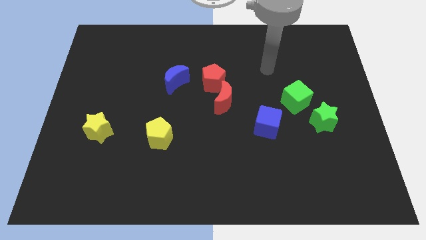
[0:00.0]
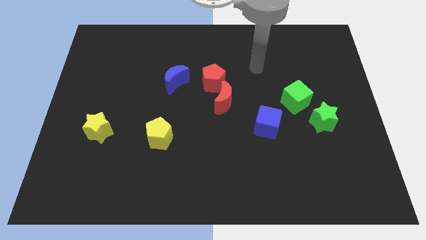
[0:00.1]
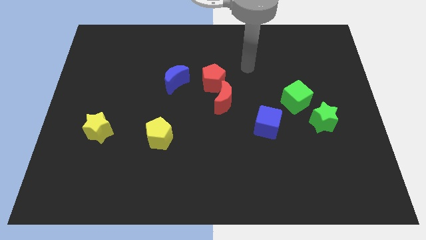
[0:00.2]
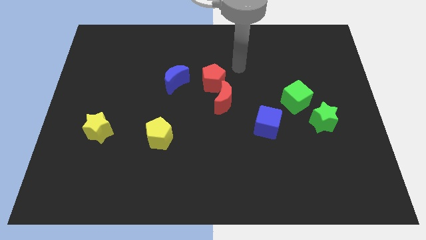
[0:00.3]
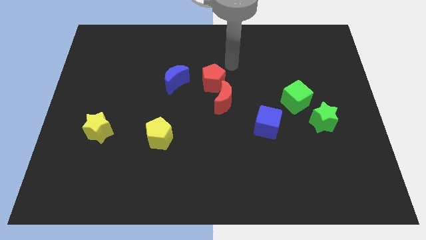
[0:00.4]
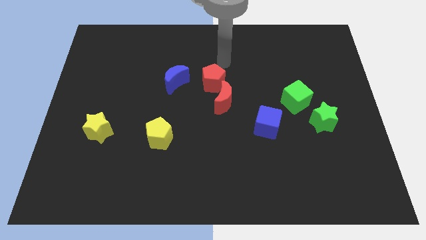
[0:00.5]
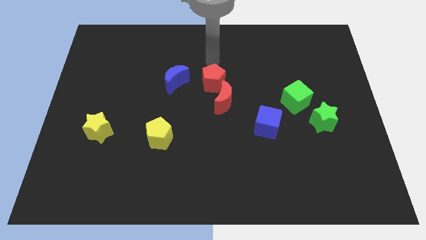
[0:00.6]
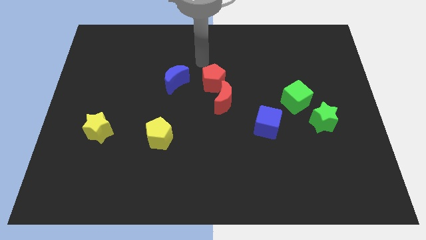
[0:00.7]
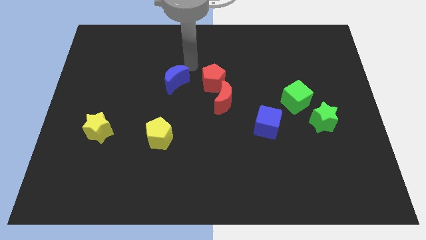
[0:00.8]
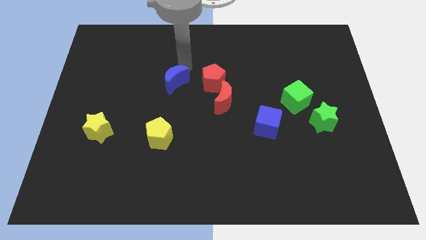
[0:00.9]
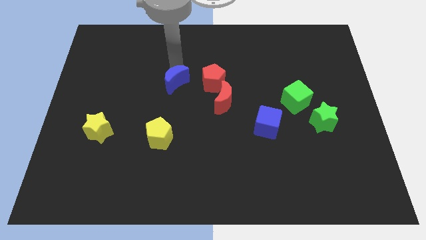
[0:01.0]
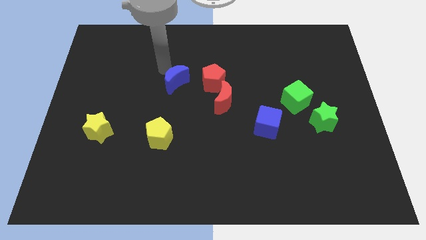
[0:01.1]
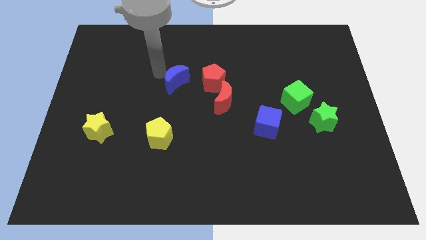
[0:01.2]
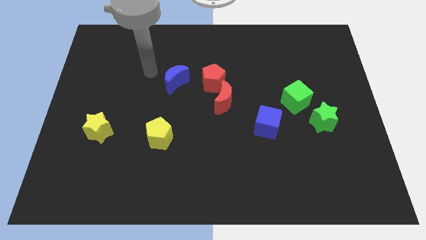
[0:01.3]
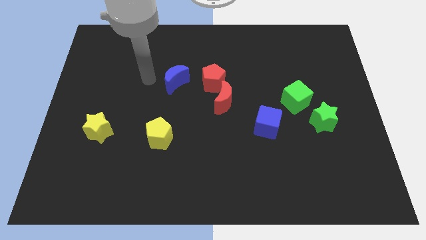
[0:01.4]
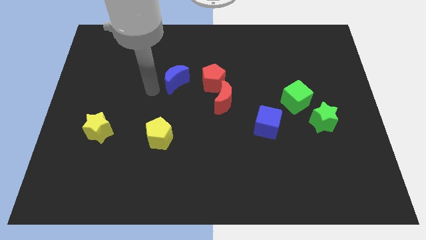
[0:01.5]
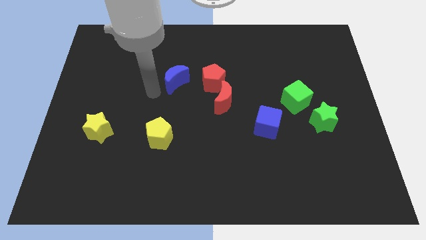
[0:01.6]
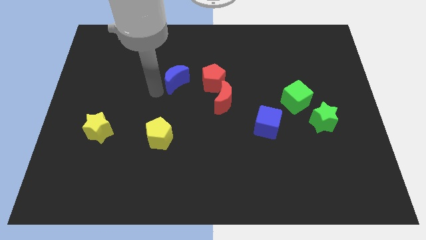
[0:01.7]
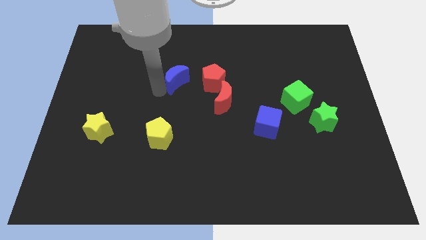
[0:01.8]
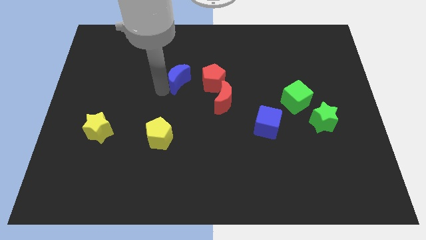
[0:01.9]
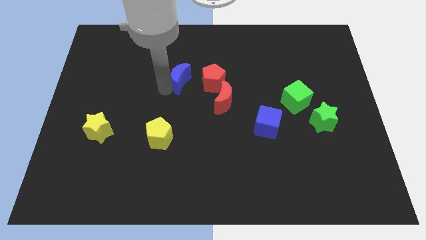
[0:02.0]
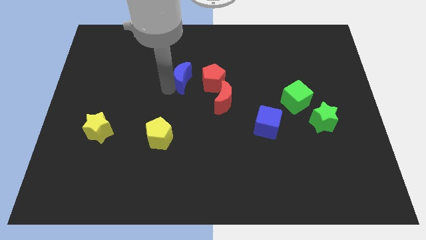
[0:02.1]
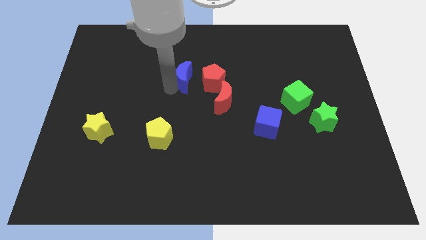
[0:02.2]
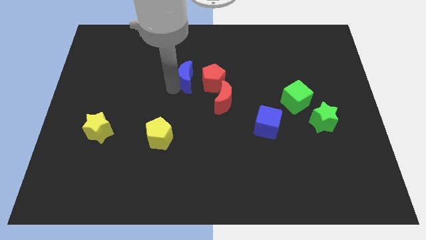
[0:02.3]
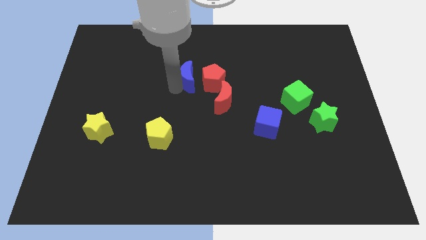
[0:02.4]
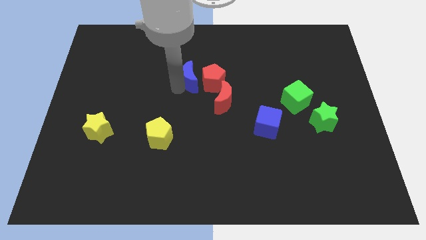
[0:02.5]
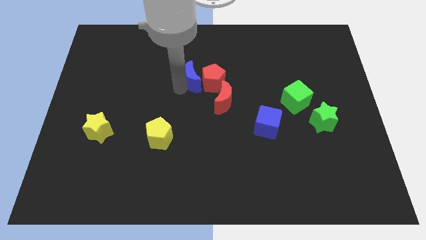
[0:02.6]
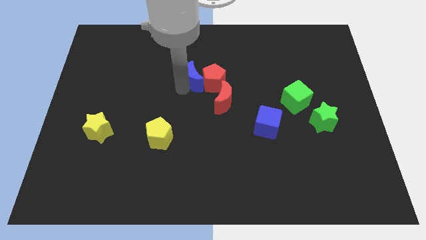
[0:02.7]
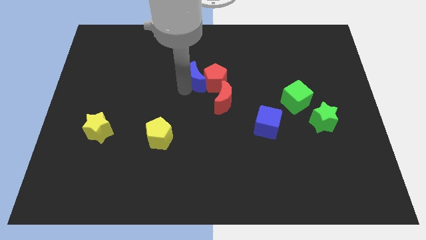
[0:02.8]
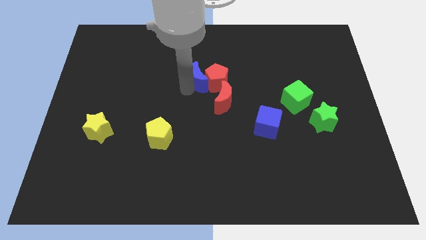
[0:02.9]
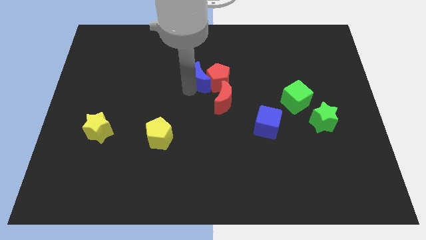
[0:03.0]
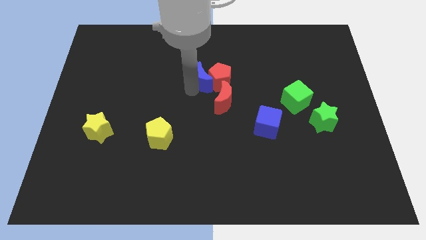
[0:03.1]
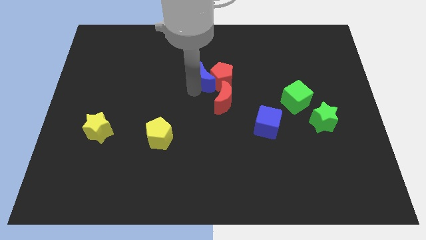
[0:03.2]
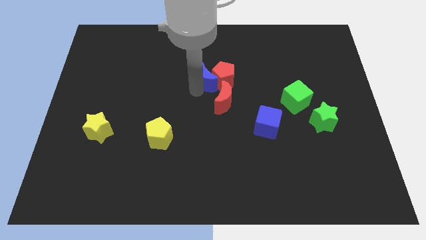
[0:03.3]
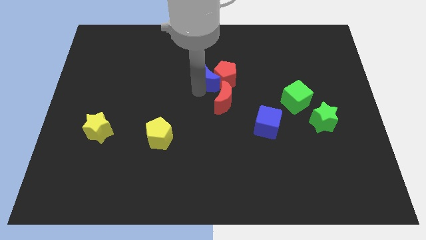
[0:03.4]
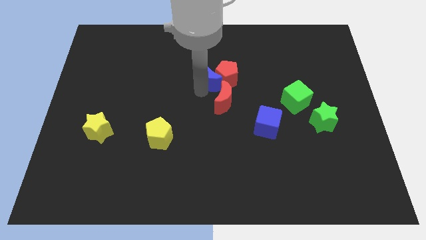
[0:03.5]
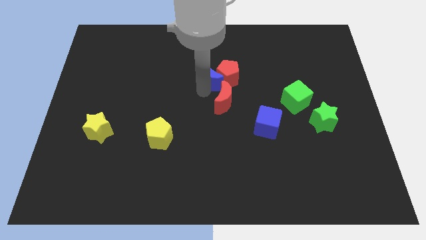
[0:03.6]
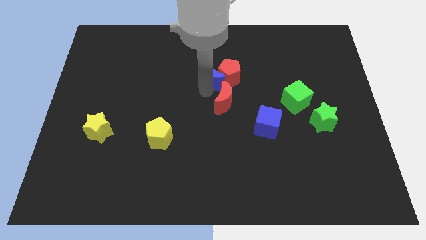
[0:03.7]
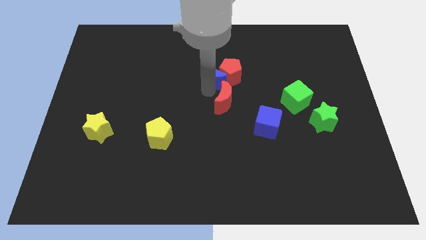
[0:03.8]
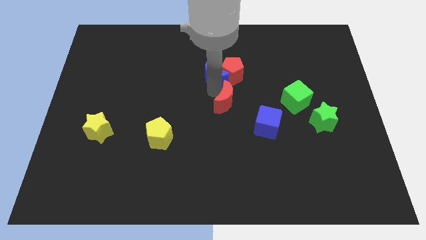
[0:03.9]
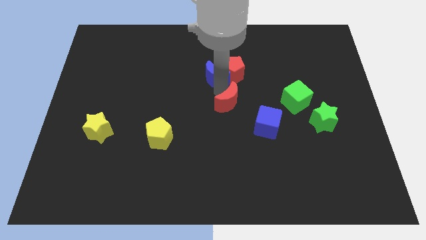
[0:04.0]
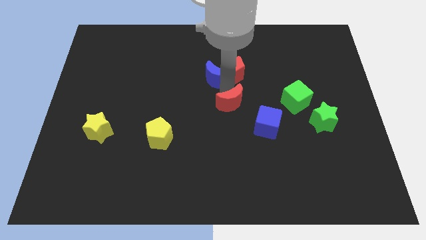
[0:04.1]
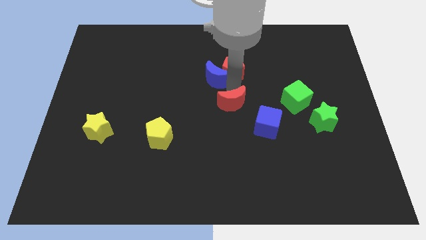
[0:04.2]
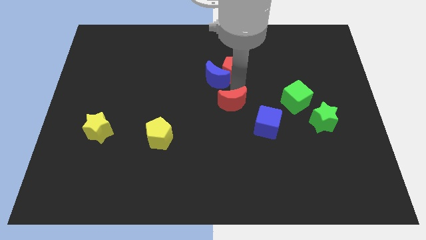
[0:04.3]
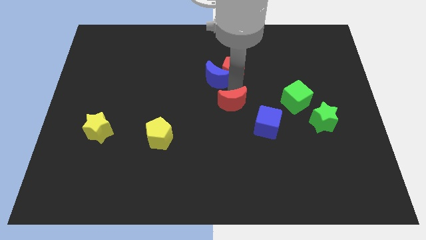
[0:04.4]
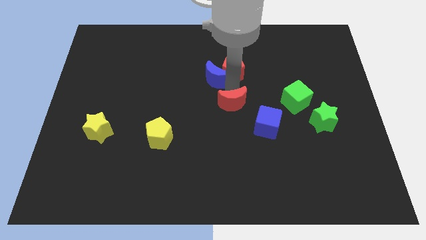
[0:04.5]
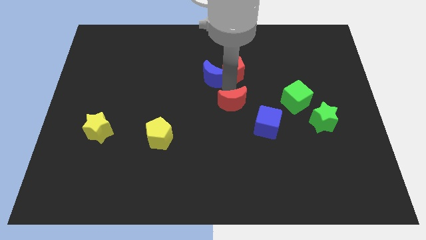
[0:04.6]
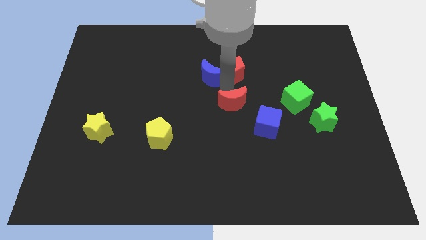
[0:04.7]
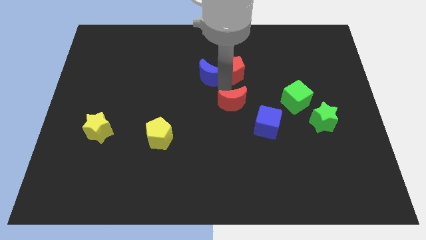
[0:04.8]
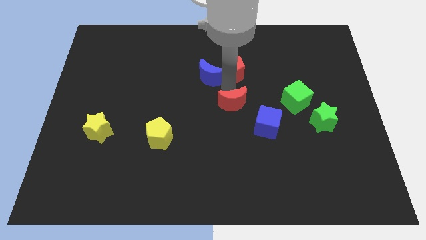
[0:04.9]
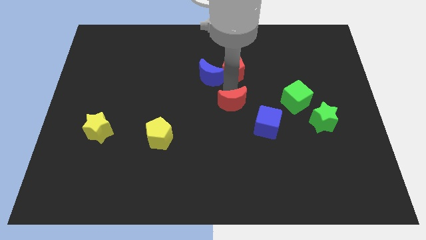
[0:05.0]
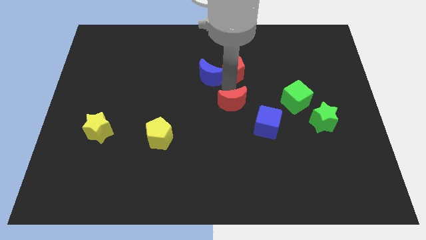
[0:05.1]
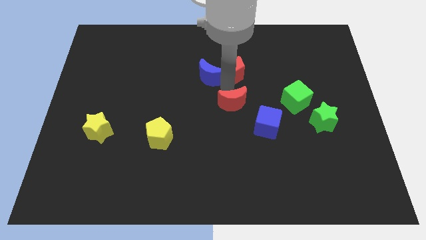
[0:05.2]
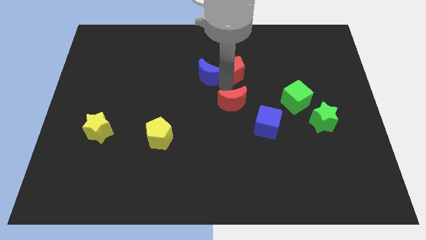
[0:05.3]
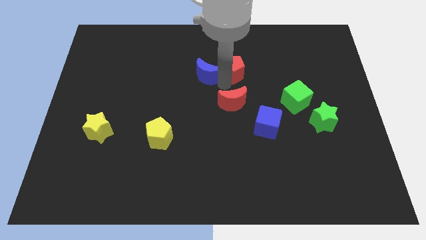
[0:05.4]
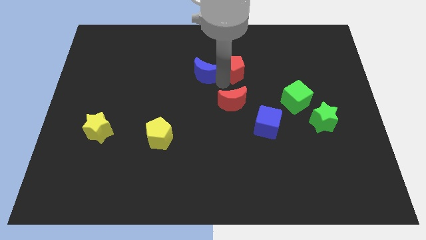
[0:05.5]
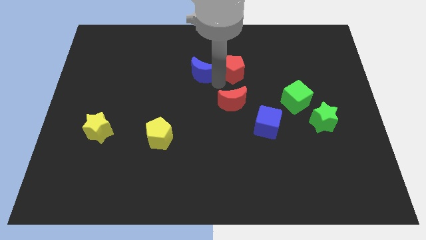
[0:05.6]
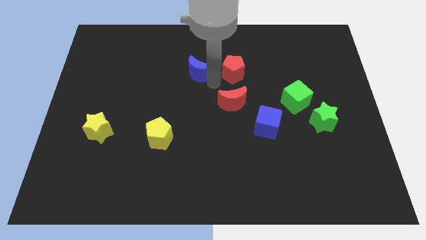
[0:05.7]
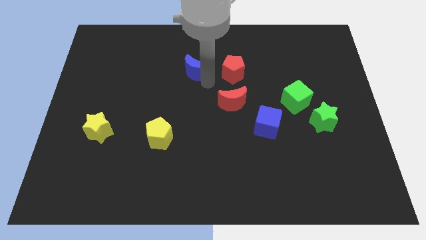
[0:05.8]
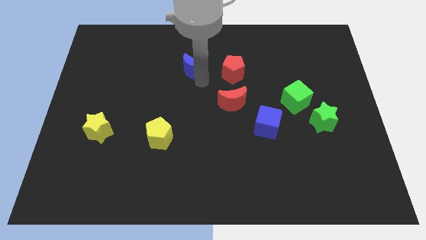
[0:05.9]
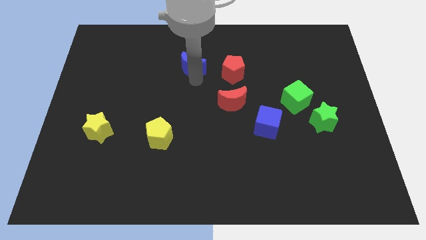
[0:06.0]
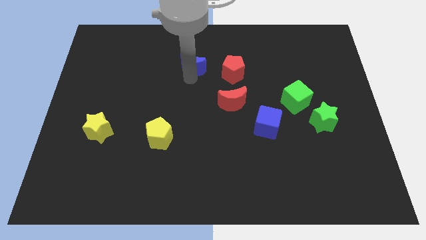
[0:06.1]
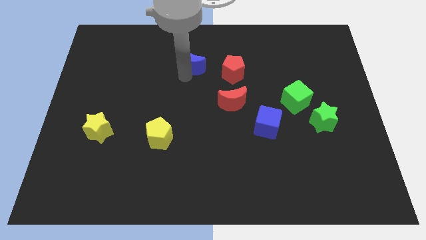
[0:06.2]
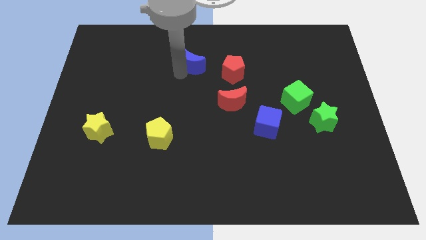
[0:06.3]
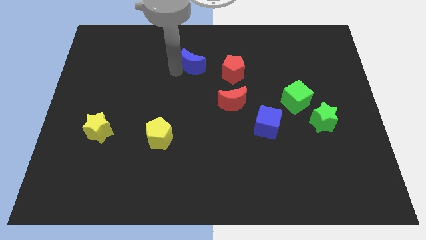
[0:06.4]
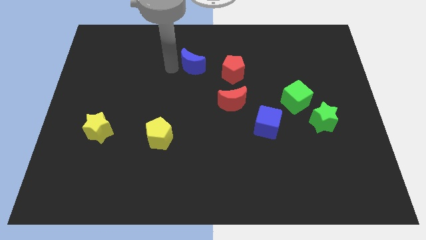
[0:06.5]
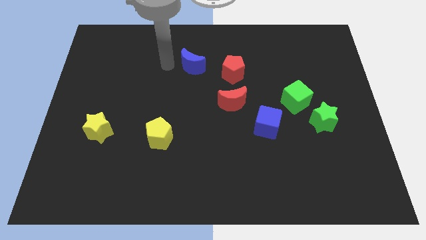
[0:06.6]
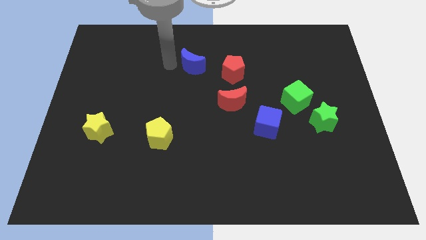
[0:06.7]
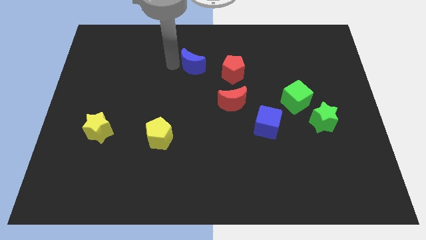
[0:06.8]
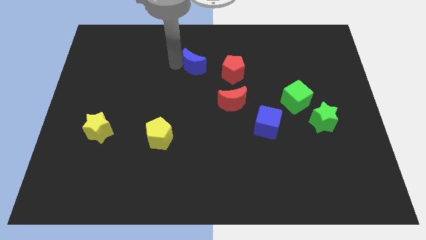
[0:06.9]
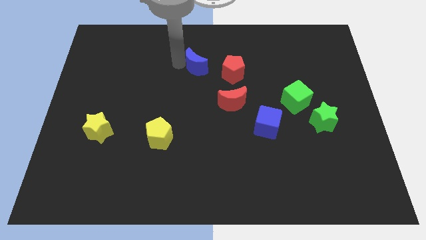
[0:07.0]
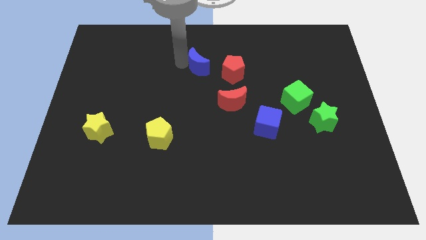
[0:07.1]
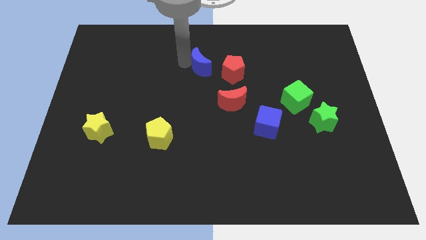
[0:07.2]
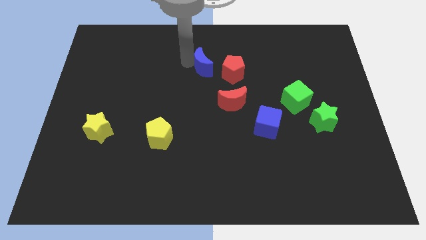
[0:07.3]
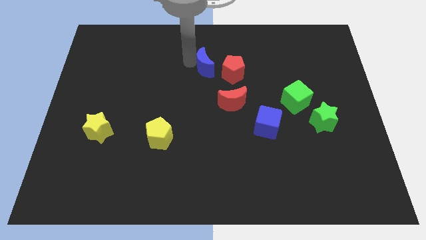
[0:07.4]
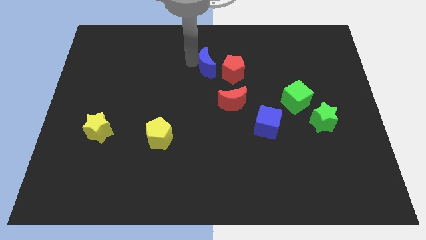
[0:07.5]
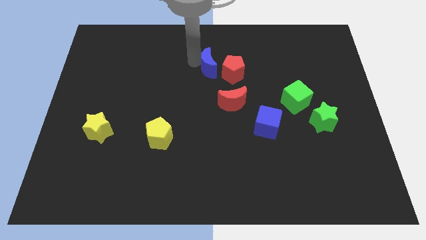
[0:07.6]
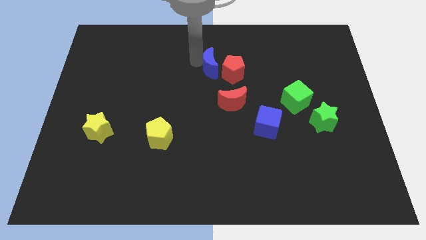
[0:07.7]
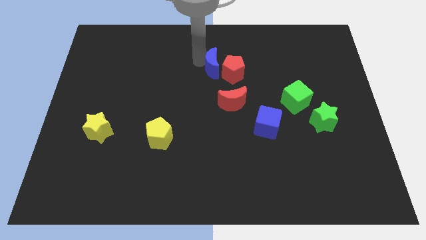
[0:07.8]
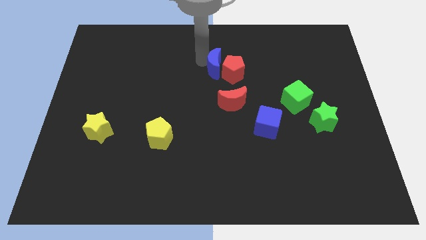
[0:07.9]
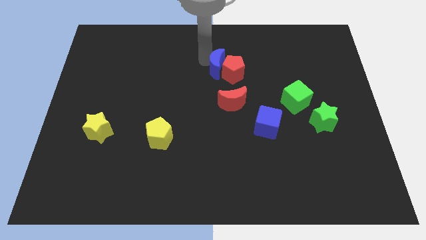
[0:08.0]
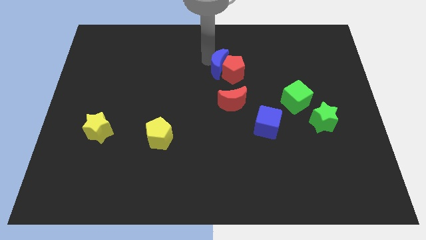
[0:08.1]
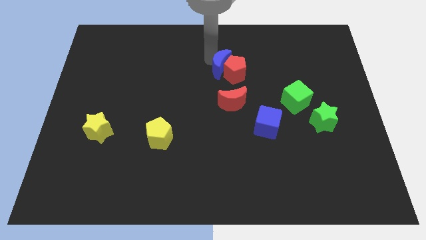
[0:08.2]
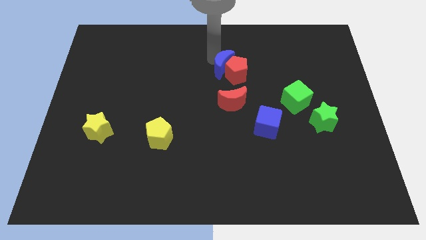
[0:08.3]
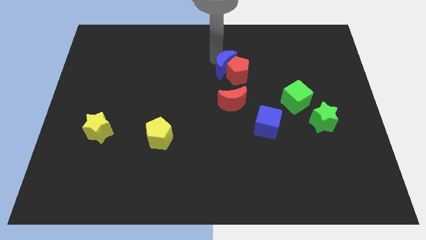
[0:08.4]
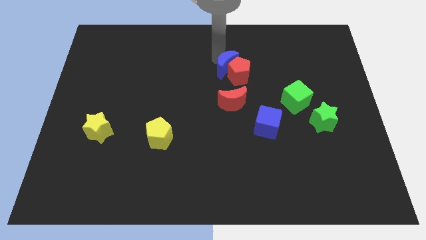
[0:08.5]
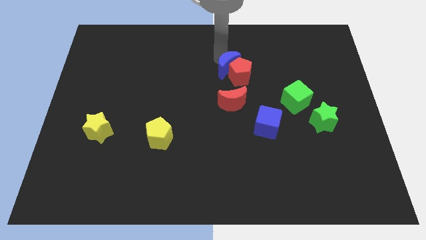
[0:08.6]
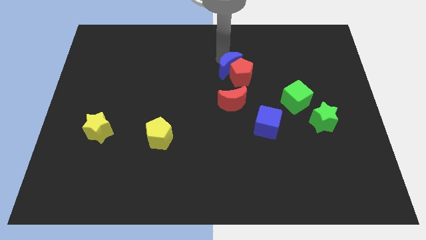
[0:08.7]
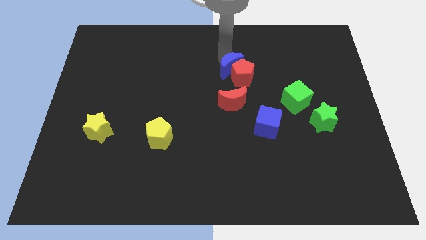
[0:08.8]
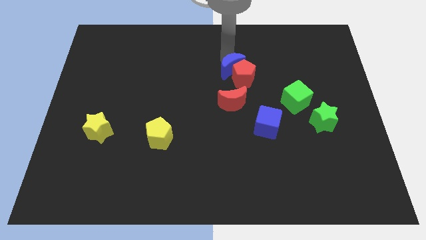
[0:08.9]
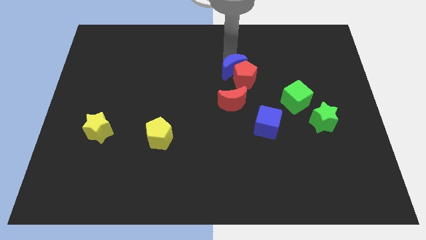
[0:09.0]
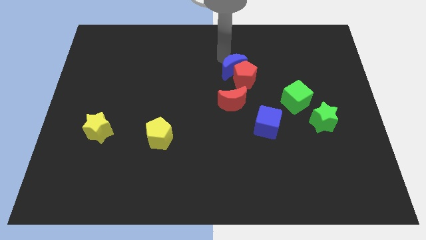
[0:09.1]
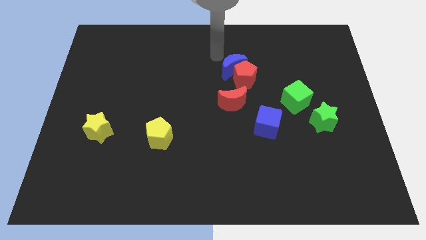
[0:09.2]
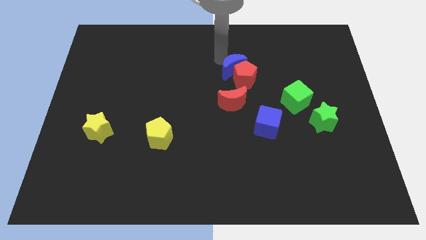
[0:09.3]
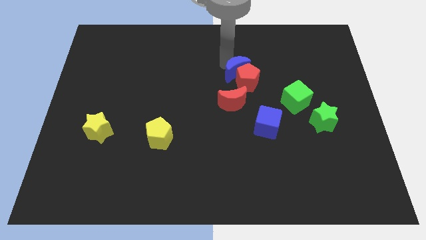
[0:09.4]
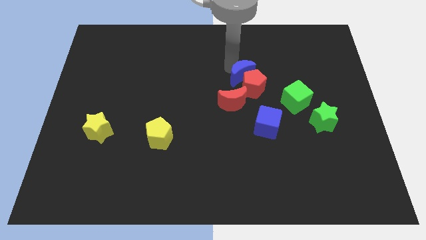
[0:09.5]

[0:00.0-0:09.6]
push the blue moon diagonally up and to the right of the red moon
